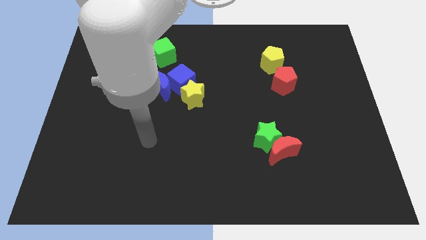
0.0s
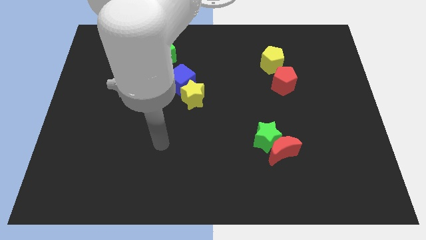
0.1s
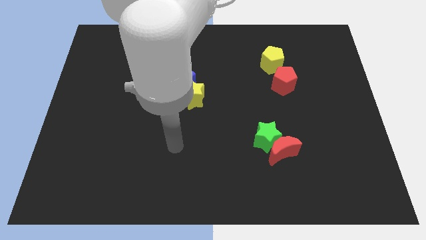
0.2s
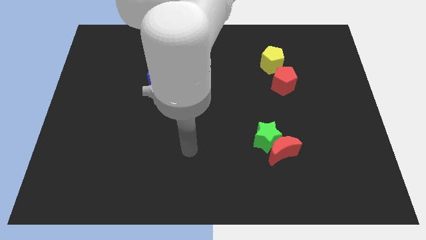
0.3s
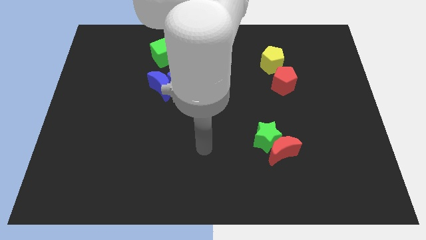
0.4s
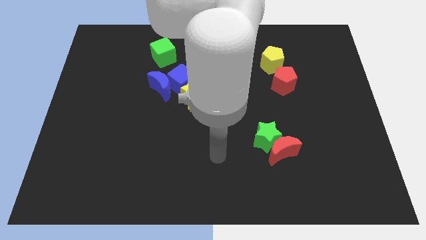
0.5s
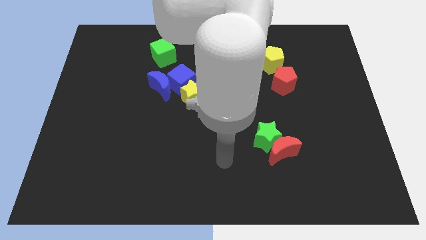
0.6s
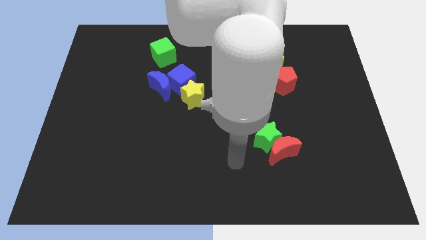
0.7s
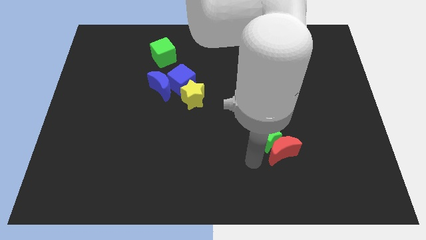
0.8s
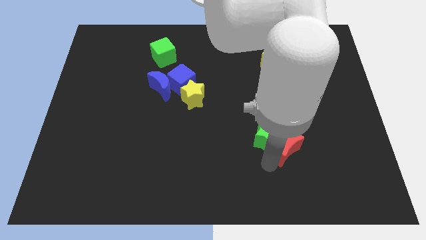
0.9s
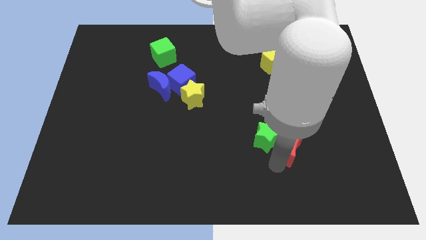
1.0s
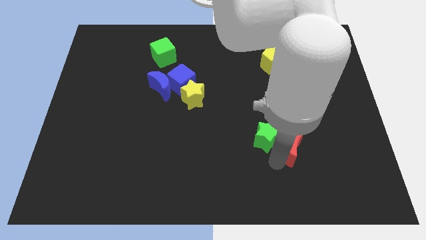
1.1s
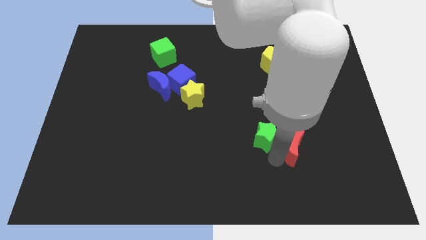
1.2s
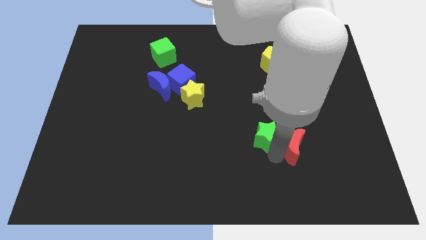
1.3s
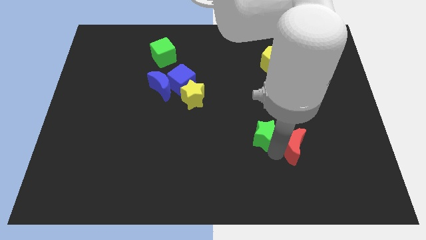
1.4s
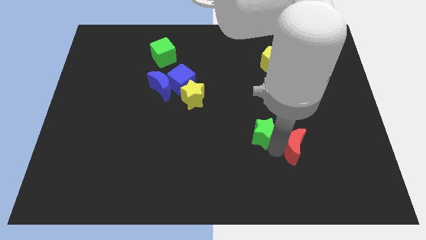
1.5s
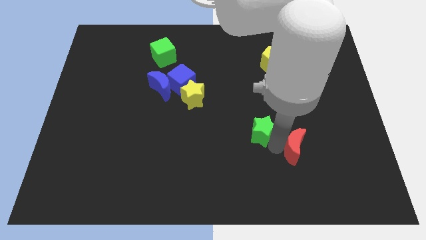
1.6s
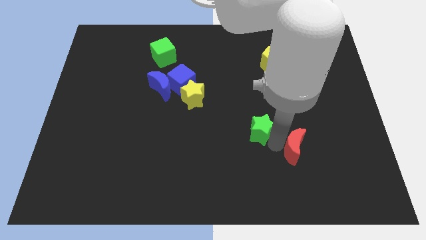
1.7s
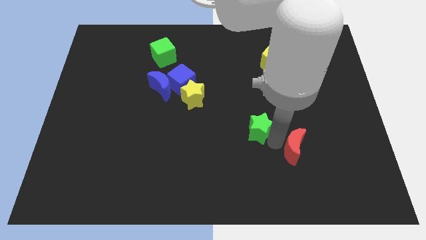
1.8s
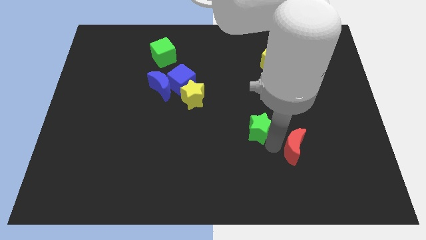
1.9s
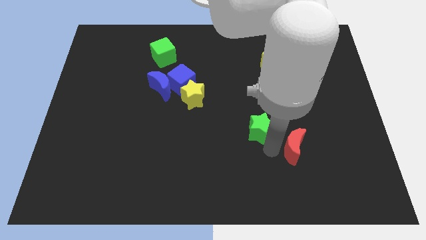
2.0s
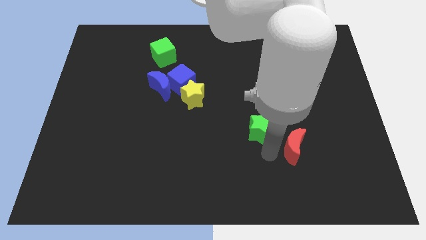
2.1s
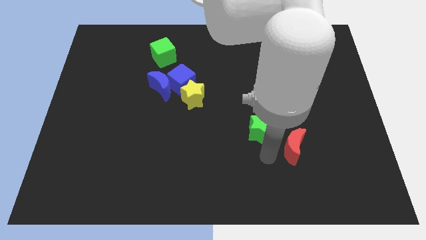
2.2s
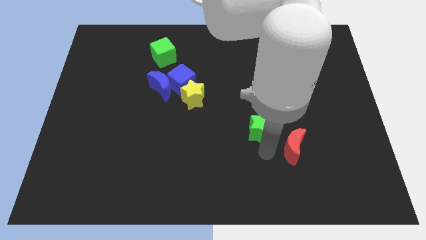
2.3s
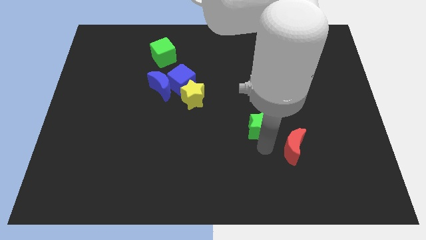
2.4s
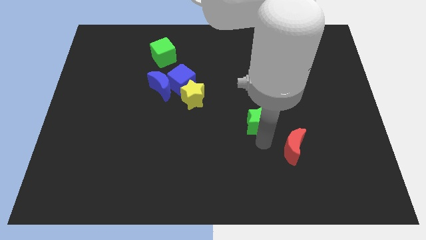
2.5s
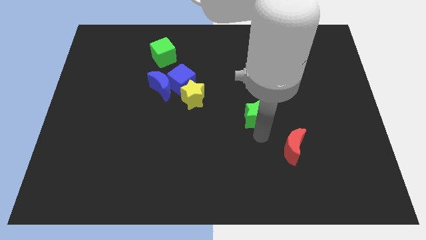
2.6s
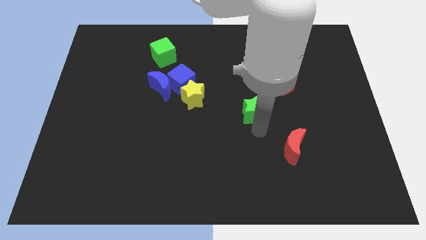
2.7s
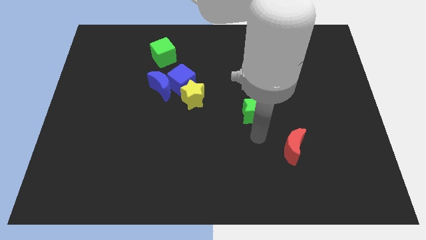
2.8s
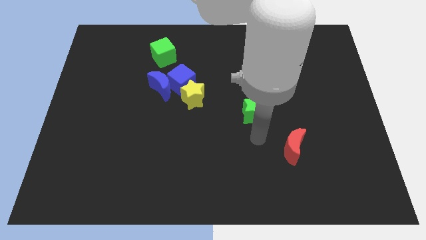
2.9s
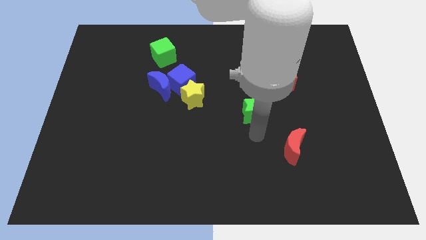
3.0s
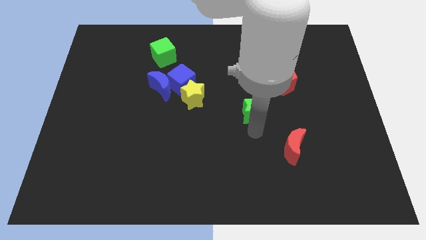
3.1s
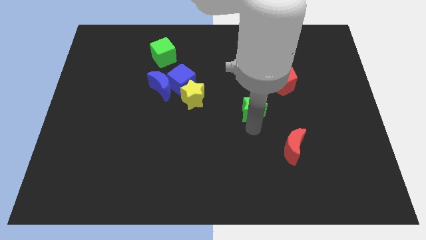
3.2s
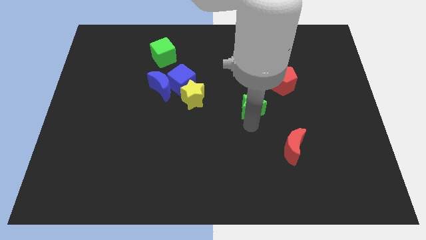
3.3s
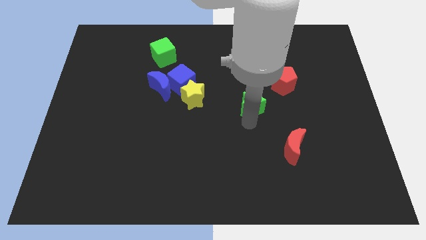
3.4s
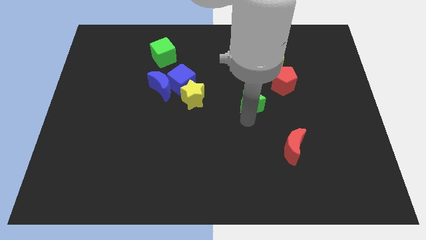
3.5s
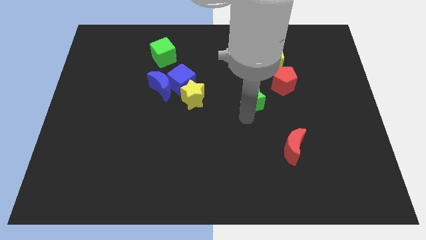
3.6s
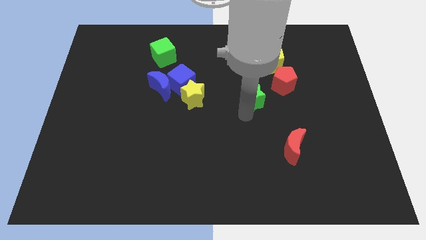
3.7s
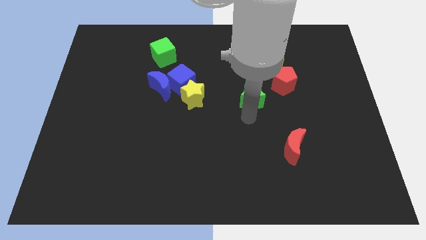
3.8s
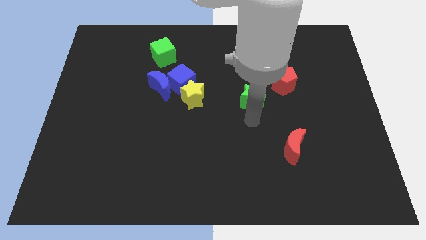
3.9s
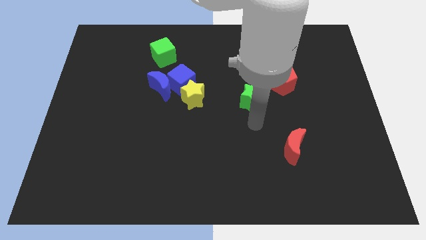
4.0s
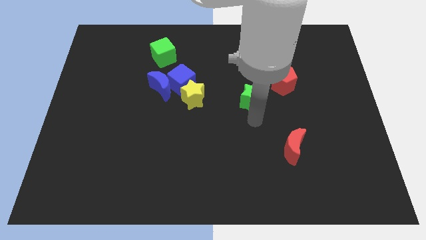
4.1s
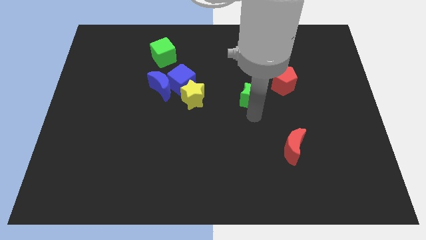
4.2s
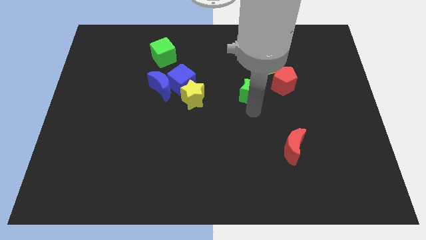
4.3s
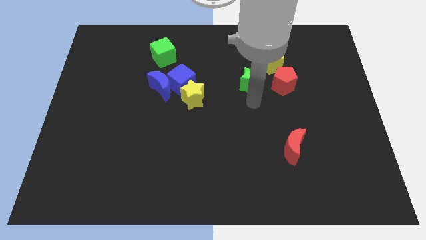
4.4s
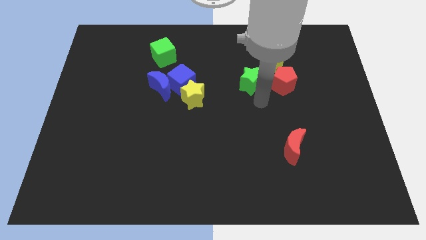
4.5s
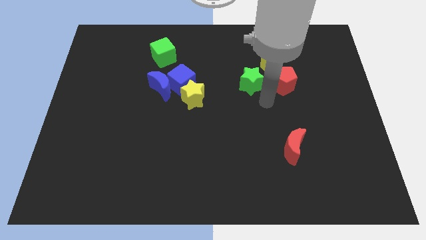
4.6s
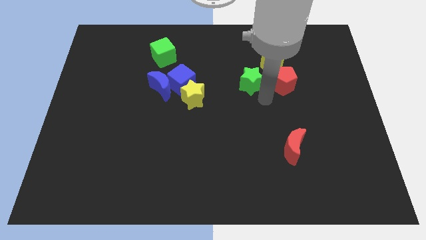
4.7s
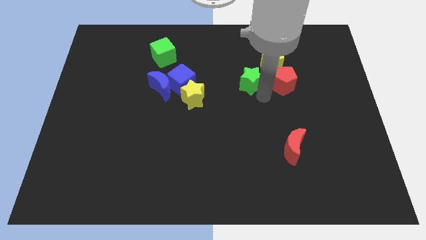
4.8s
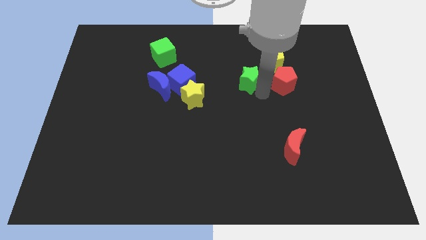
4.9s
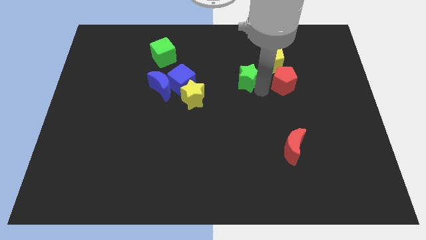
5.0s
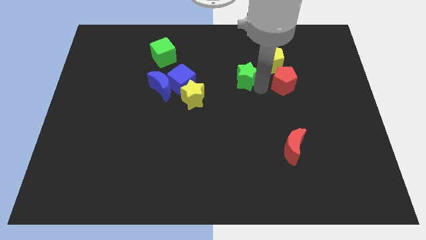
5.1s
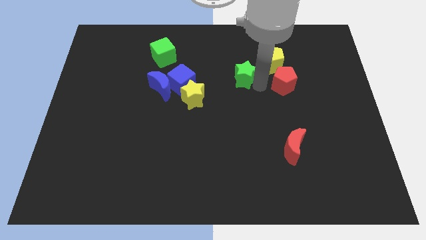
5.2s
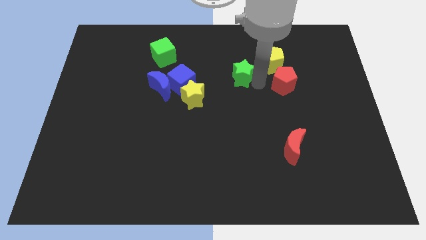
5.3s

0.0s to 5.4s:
move the green star to the left side of the yellow pentagon

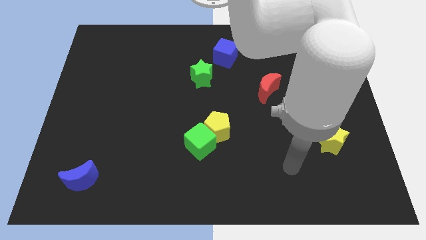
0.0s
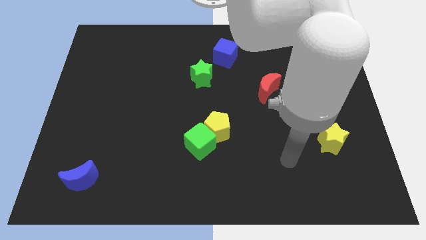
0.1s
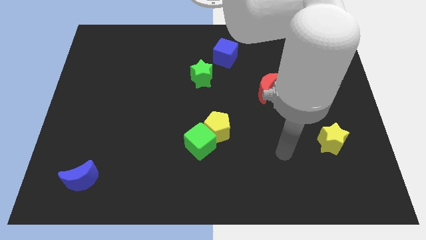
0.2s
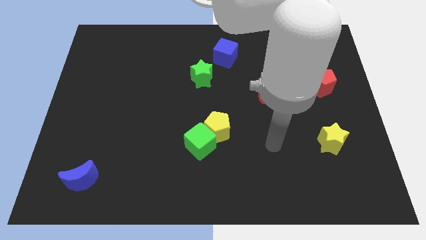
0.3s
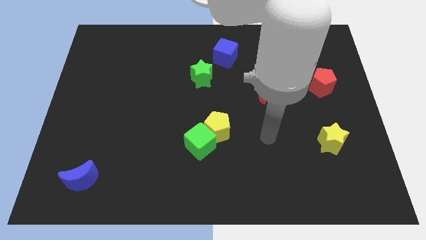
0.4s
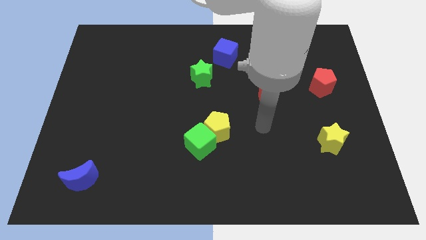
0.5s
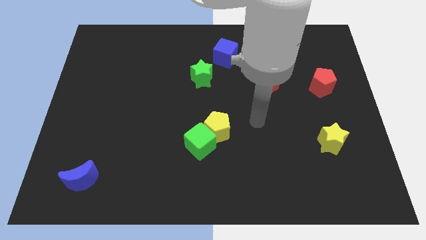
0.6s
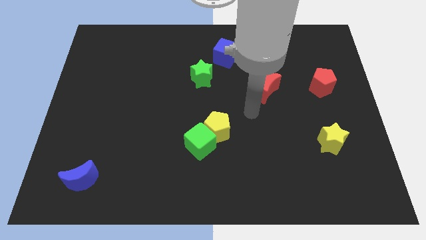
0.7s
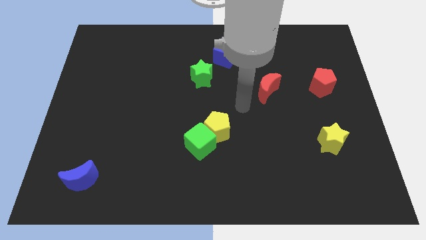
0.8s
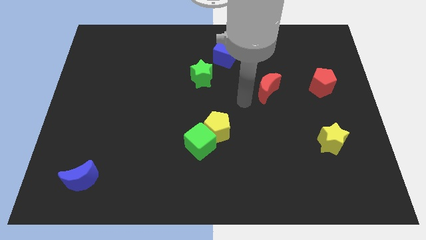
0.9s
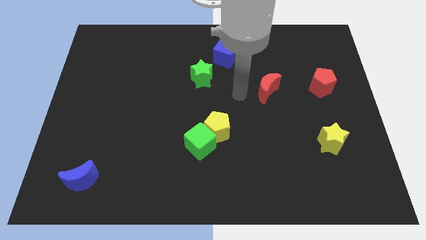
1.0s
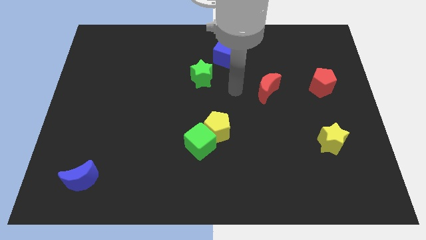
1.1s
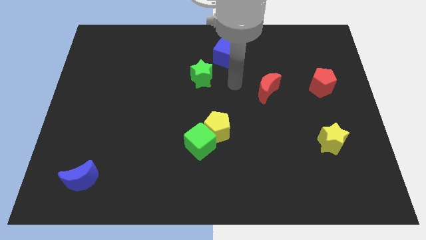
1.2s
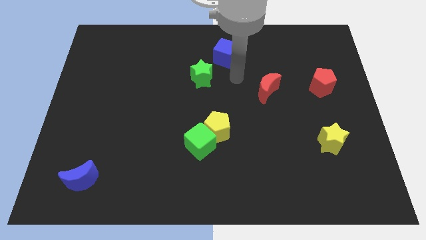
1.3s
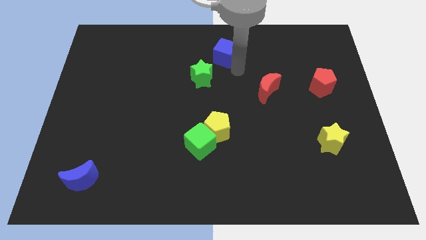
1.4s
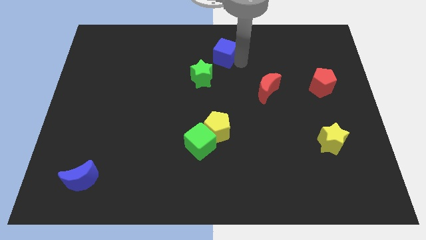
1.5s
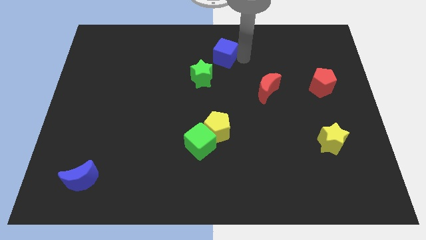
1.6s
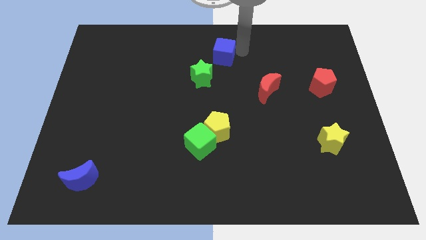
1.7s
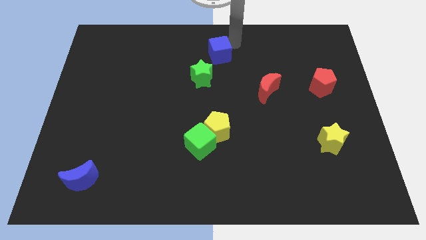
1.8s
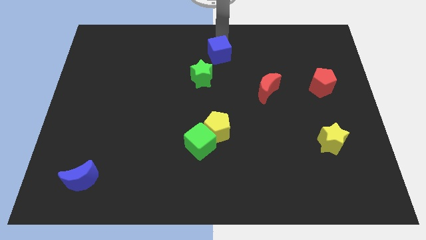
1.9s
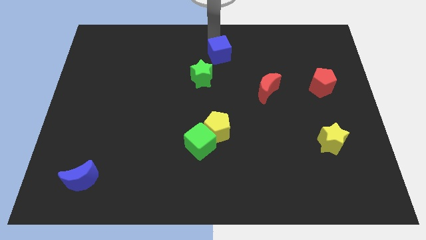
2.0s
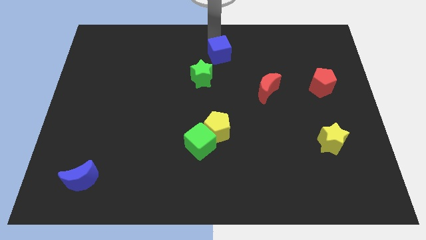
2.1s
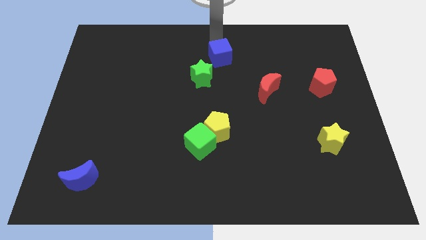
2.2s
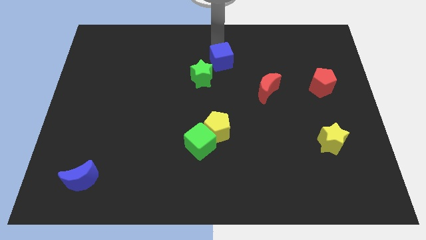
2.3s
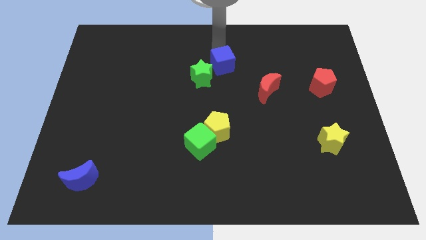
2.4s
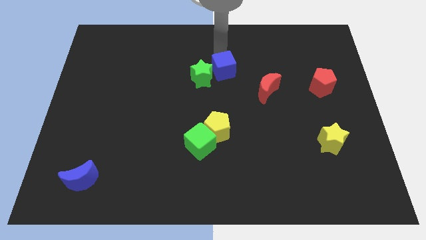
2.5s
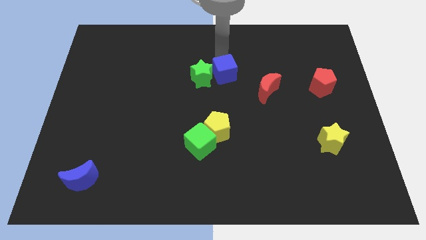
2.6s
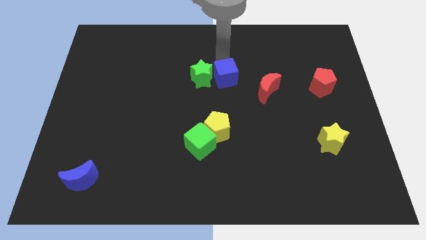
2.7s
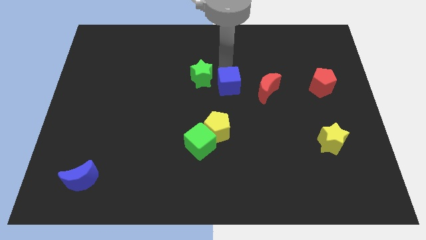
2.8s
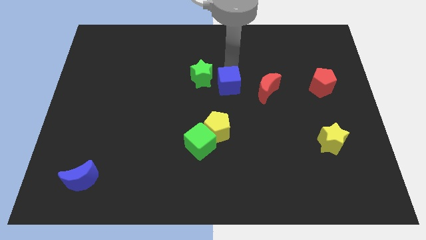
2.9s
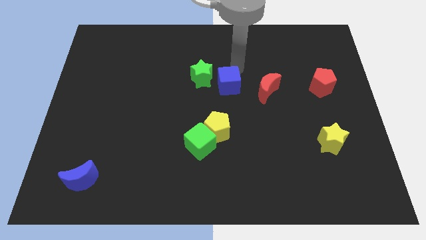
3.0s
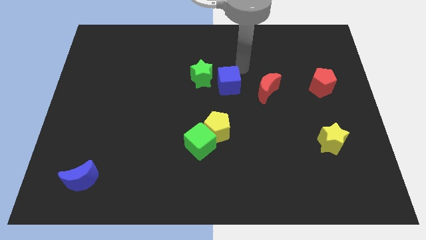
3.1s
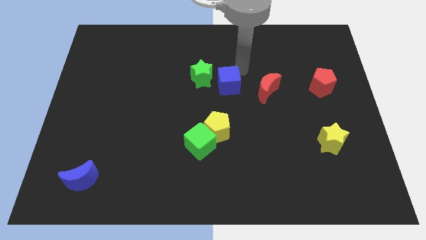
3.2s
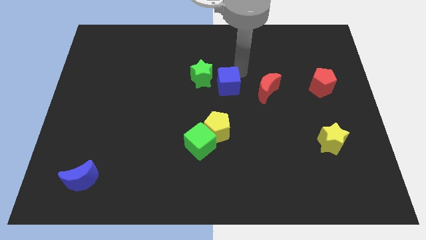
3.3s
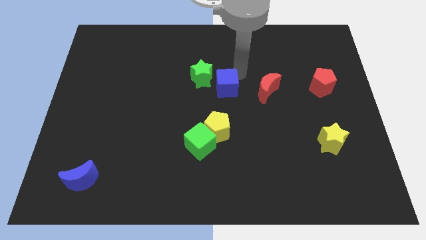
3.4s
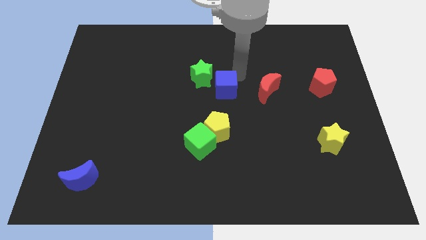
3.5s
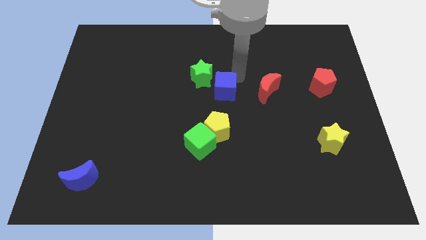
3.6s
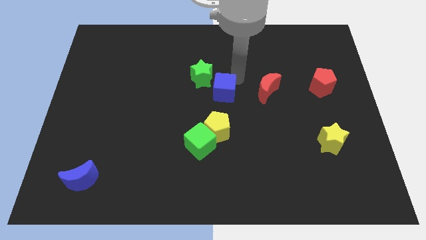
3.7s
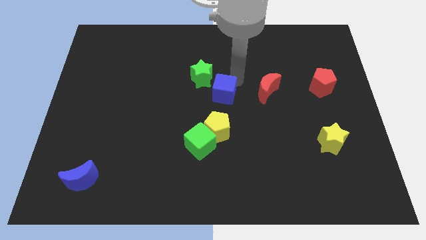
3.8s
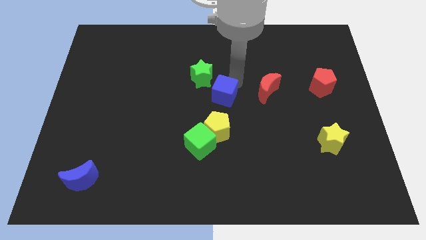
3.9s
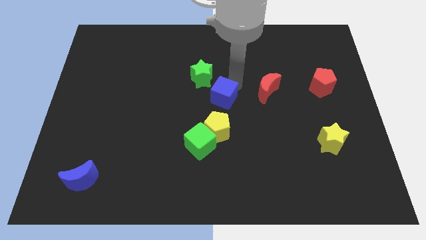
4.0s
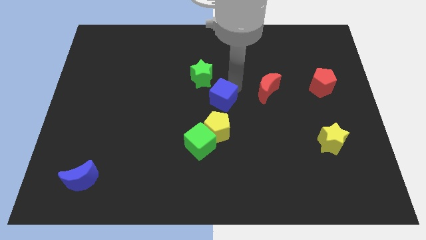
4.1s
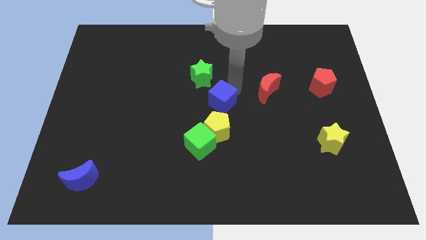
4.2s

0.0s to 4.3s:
put the blue cube to the top of the green cube
